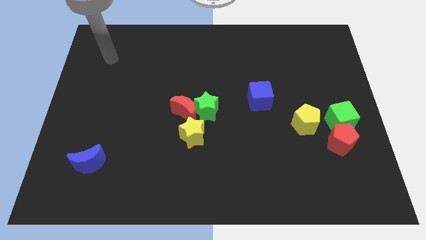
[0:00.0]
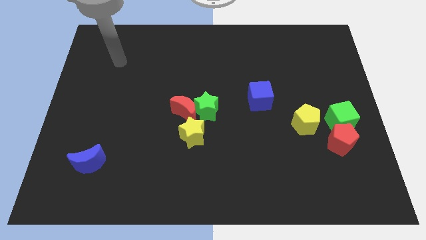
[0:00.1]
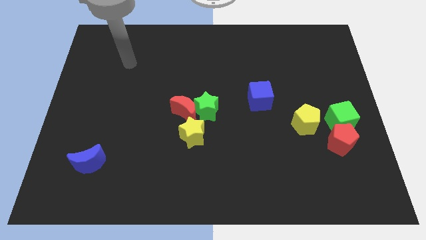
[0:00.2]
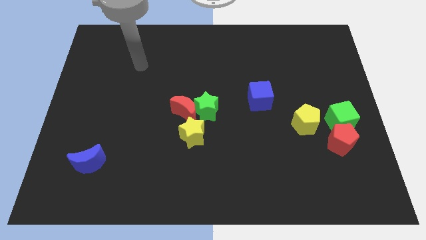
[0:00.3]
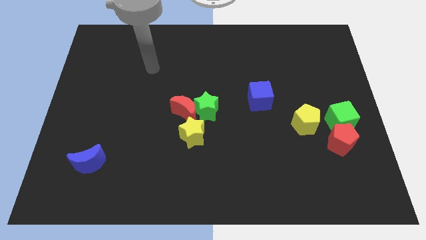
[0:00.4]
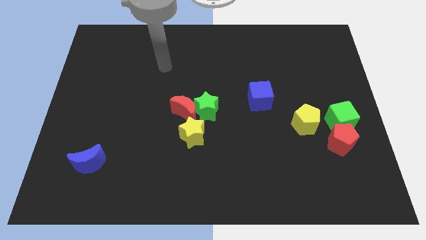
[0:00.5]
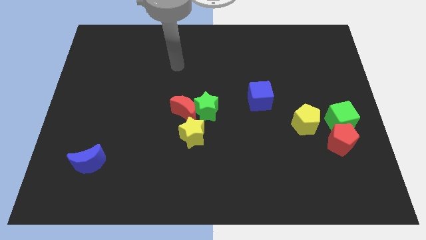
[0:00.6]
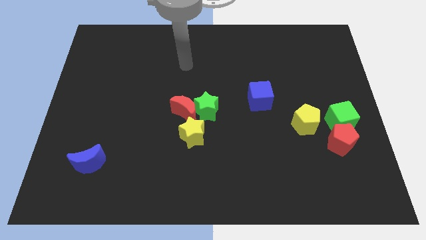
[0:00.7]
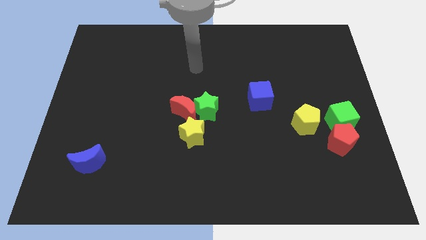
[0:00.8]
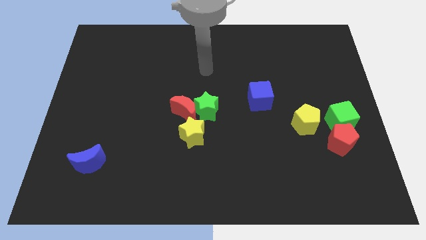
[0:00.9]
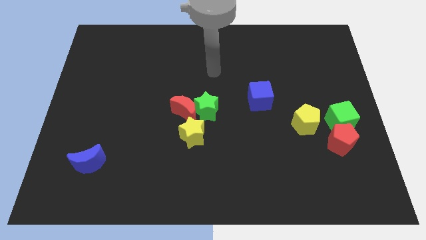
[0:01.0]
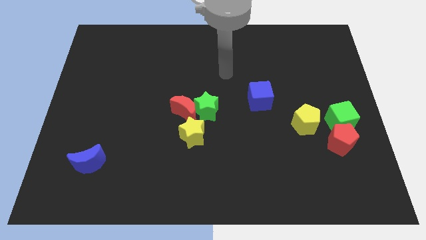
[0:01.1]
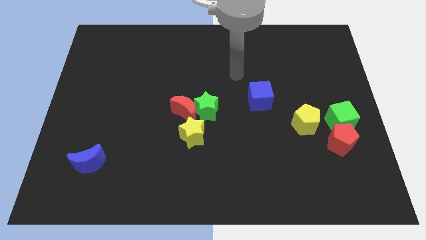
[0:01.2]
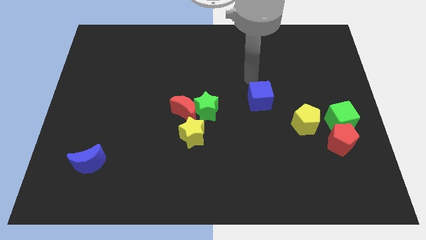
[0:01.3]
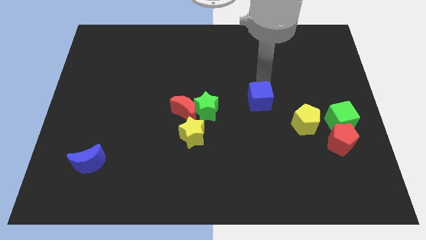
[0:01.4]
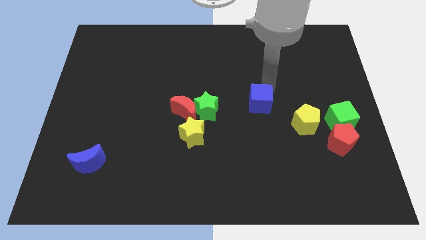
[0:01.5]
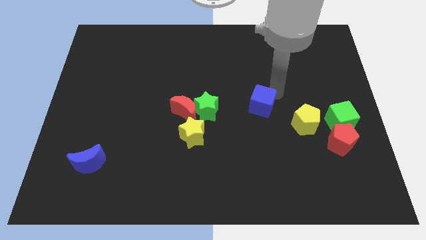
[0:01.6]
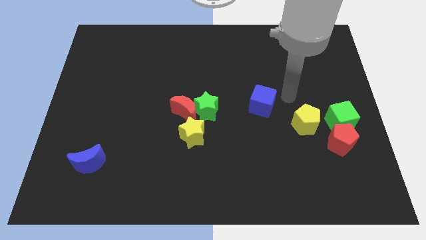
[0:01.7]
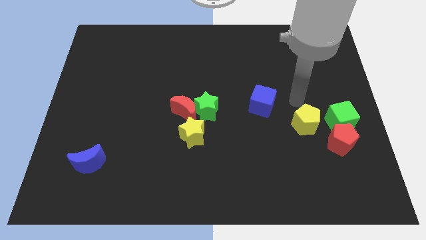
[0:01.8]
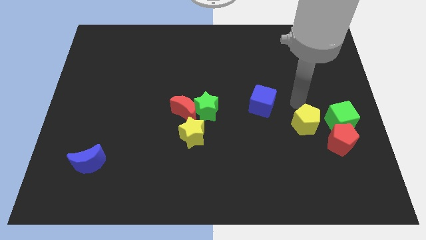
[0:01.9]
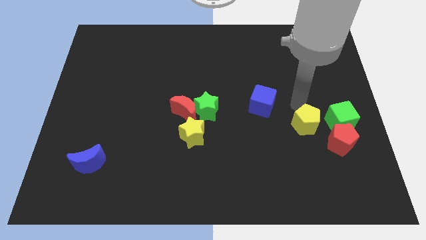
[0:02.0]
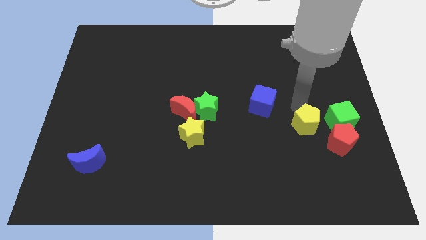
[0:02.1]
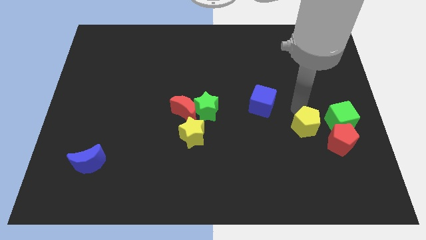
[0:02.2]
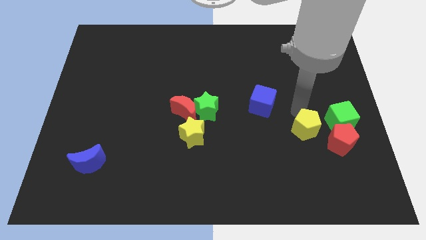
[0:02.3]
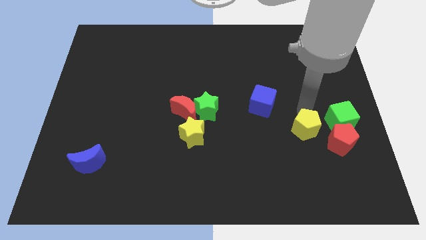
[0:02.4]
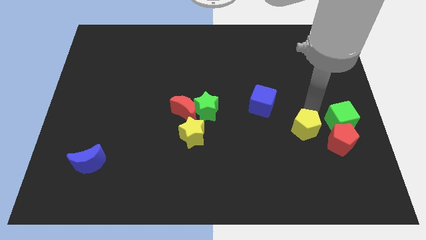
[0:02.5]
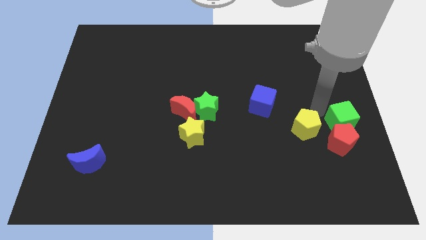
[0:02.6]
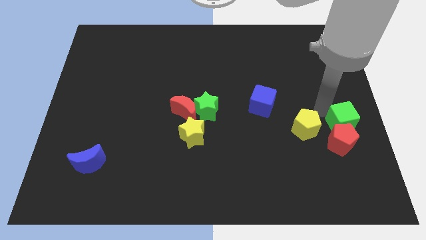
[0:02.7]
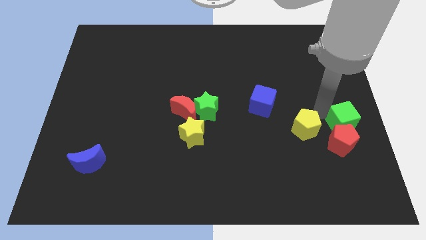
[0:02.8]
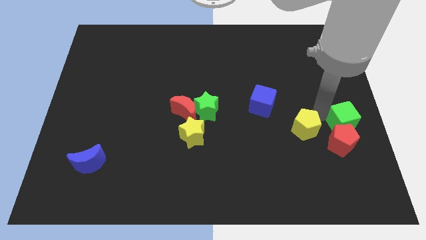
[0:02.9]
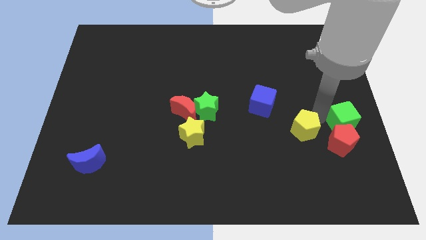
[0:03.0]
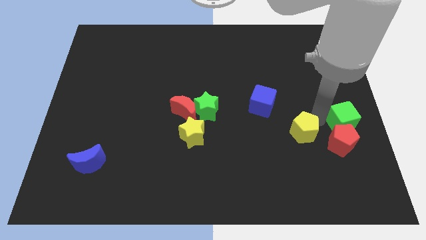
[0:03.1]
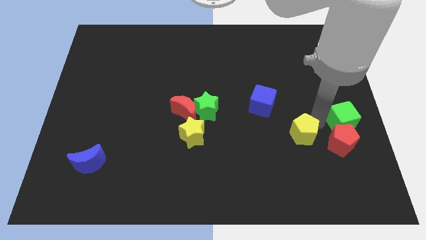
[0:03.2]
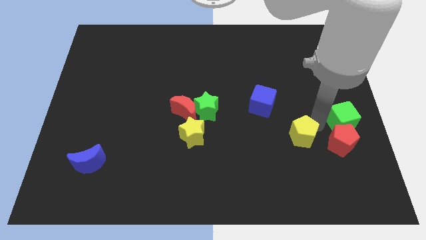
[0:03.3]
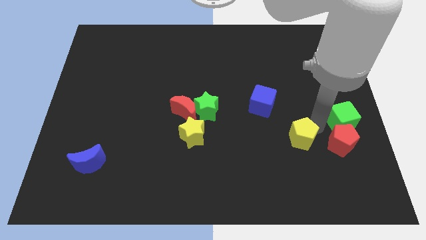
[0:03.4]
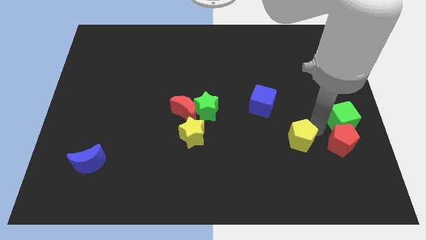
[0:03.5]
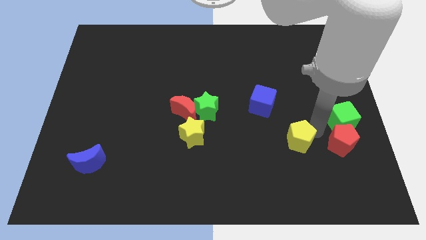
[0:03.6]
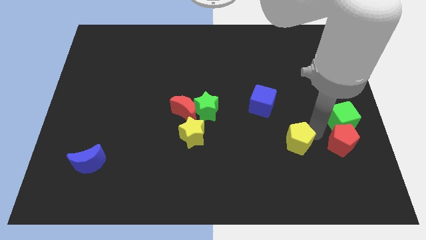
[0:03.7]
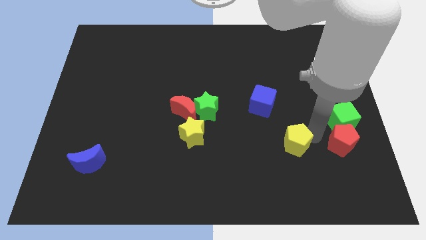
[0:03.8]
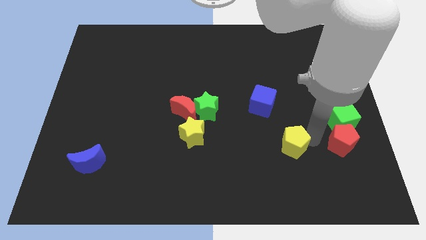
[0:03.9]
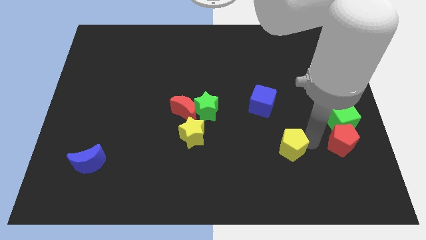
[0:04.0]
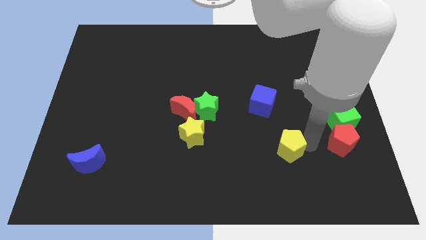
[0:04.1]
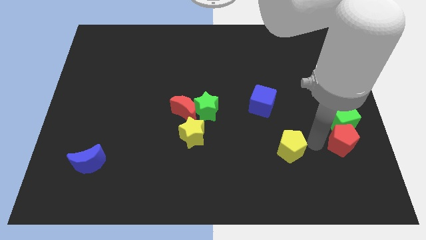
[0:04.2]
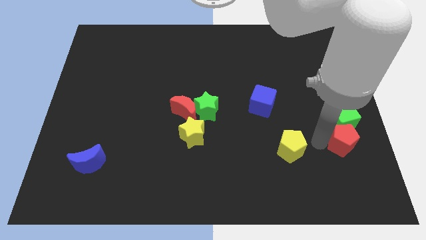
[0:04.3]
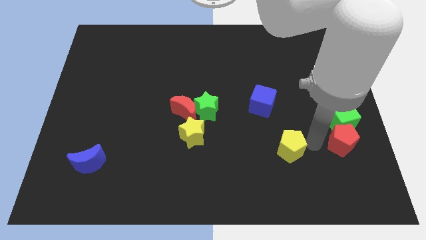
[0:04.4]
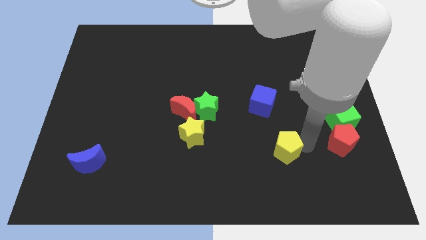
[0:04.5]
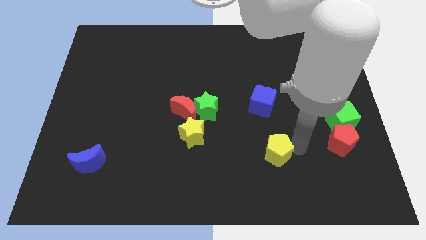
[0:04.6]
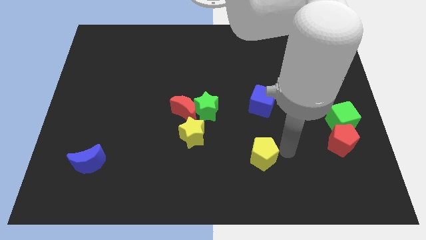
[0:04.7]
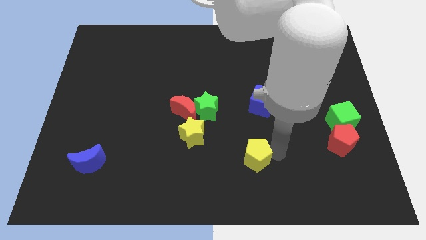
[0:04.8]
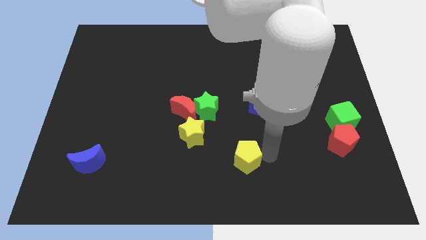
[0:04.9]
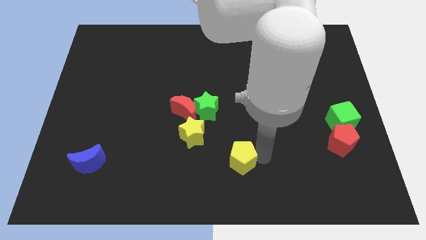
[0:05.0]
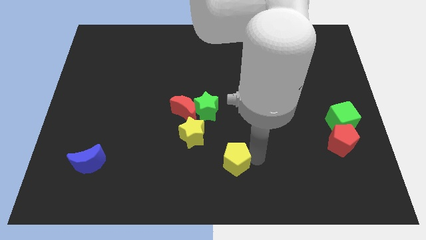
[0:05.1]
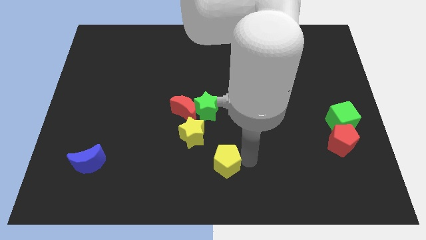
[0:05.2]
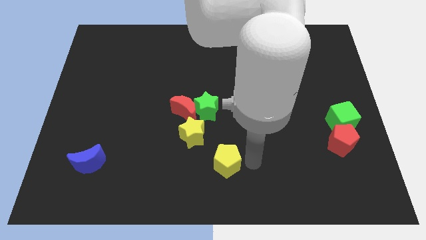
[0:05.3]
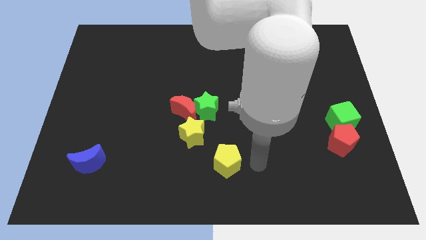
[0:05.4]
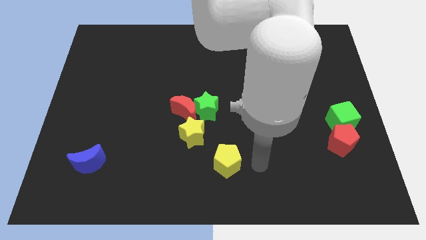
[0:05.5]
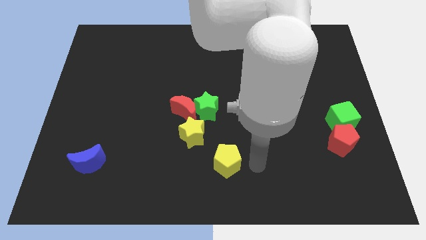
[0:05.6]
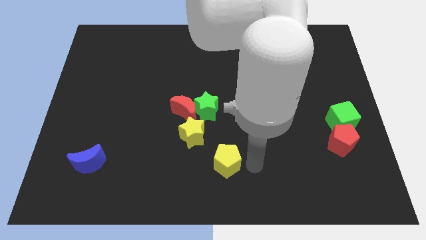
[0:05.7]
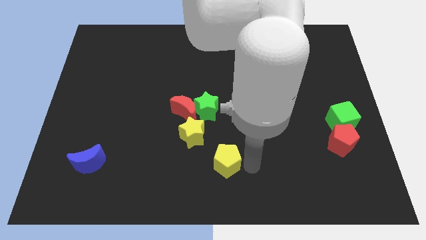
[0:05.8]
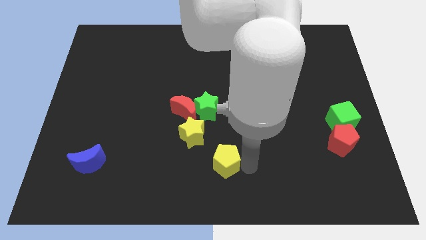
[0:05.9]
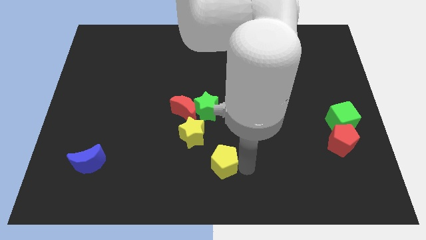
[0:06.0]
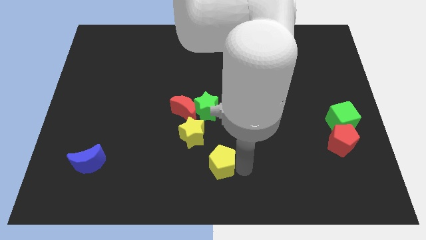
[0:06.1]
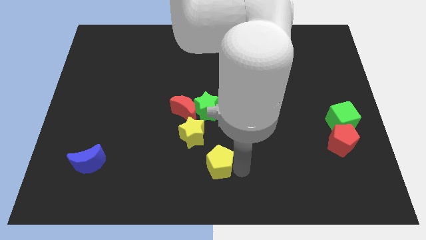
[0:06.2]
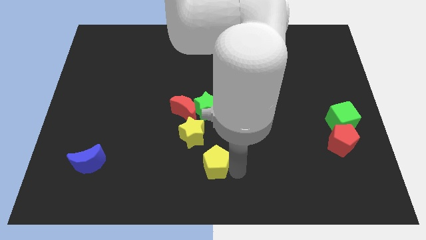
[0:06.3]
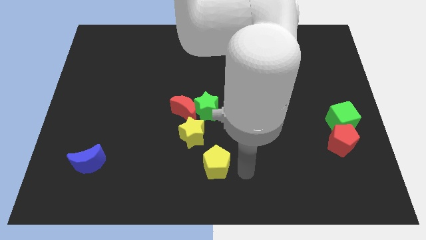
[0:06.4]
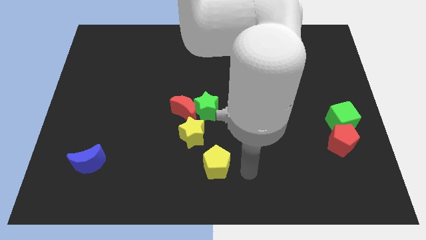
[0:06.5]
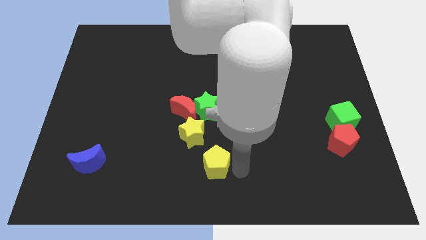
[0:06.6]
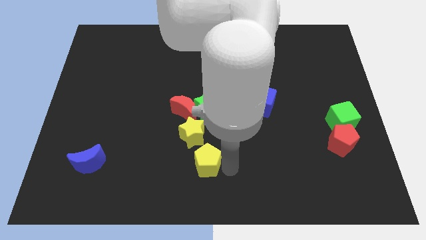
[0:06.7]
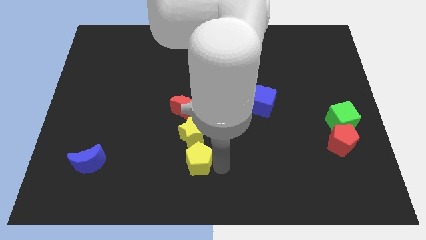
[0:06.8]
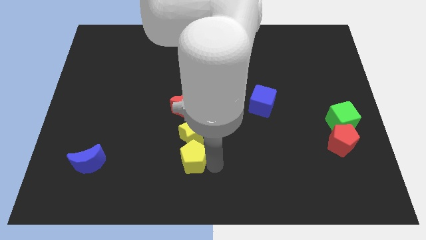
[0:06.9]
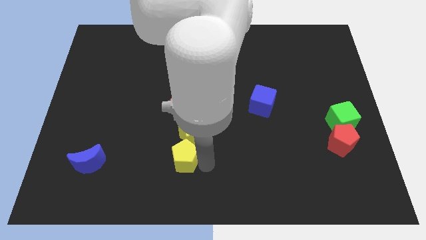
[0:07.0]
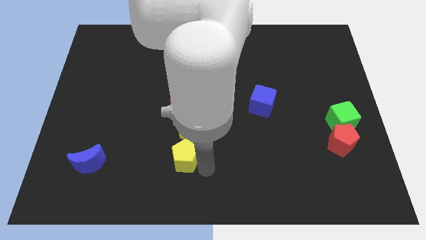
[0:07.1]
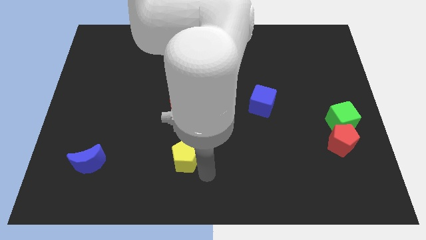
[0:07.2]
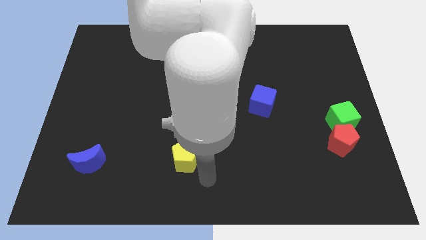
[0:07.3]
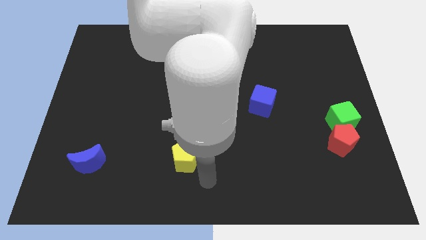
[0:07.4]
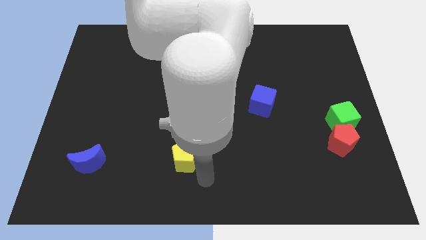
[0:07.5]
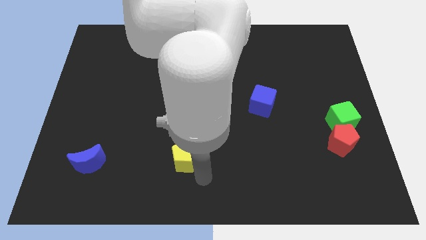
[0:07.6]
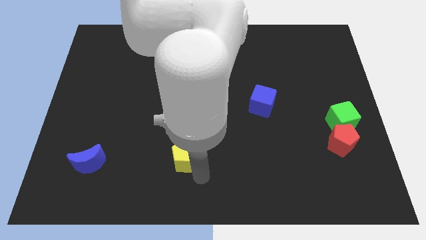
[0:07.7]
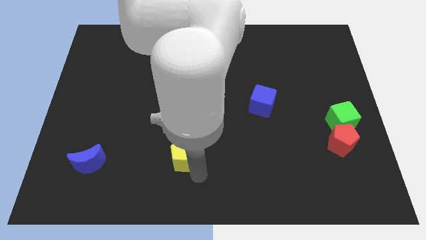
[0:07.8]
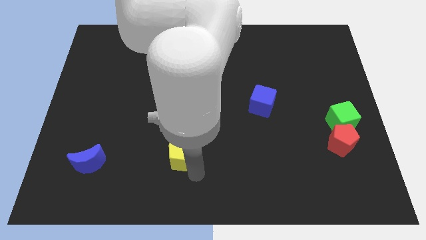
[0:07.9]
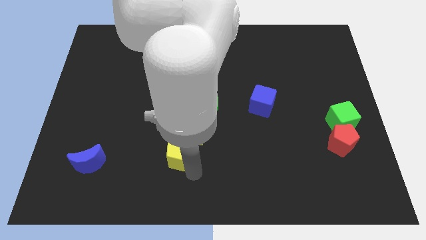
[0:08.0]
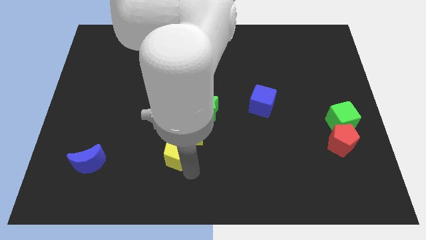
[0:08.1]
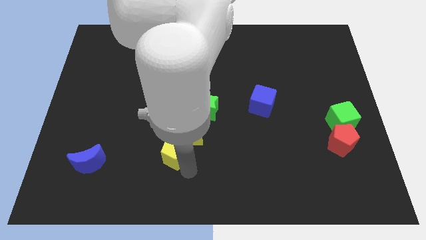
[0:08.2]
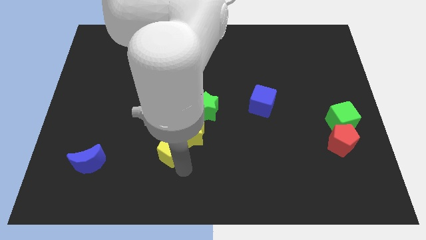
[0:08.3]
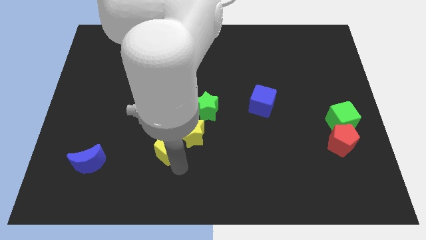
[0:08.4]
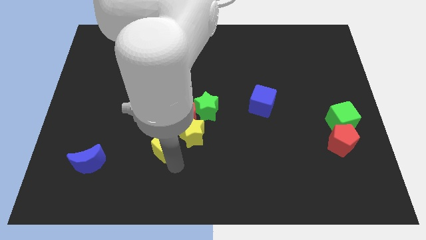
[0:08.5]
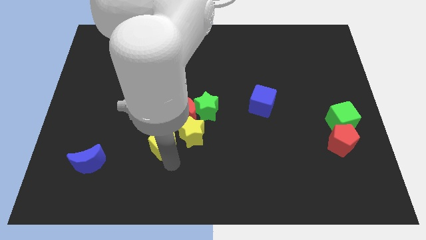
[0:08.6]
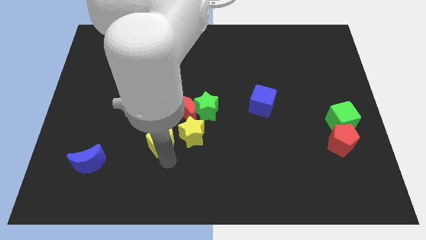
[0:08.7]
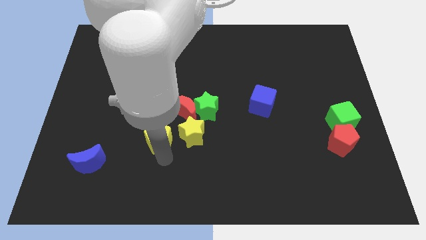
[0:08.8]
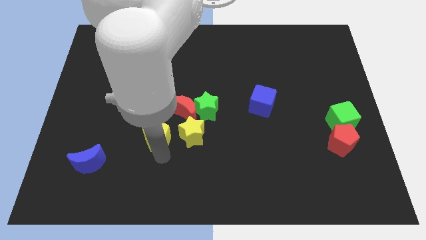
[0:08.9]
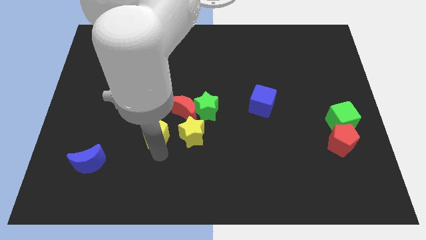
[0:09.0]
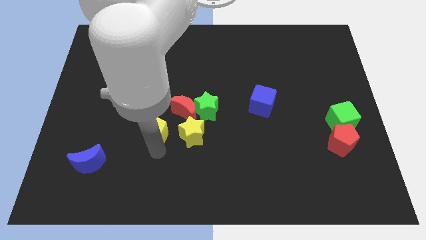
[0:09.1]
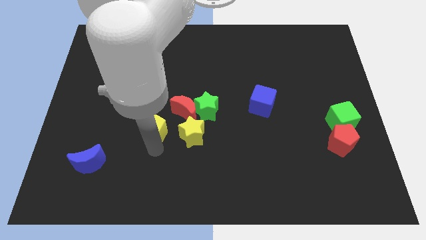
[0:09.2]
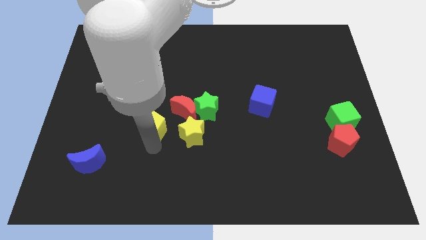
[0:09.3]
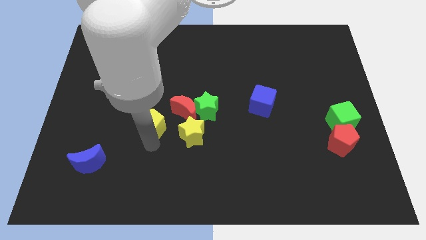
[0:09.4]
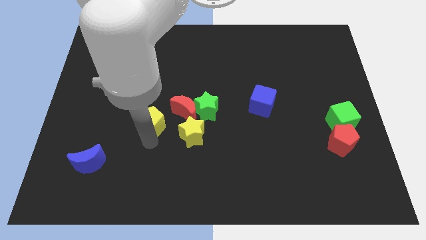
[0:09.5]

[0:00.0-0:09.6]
slide the yellow pentagon diagonally up and to the left of the yellow star
